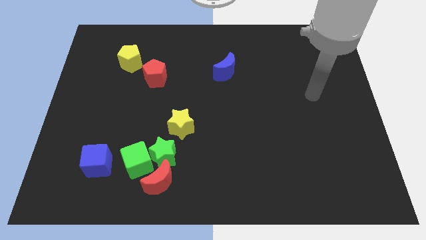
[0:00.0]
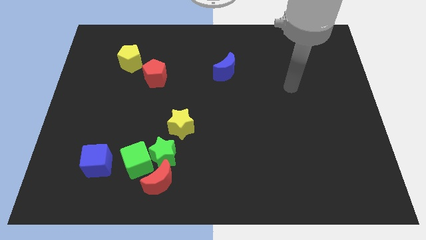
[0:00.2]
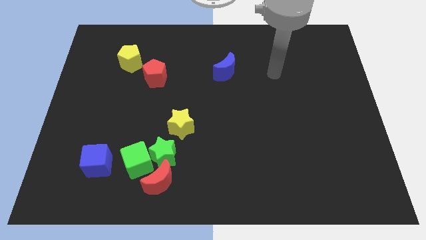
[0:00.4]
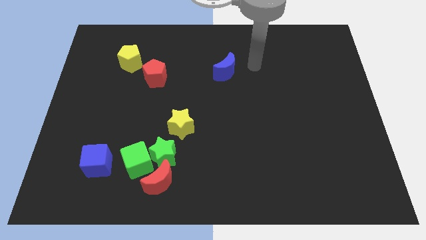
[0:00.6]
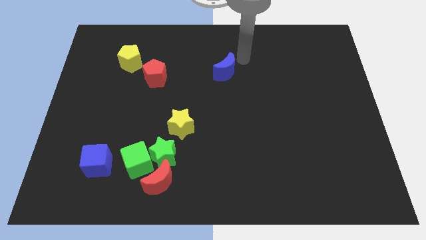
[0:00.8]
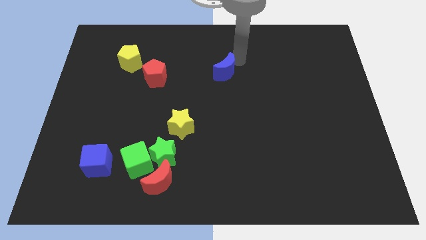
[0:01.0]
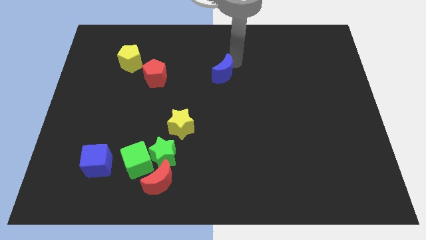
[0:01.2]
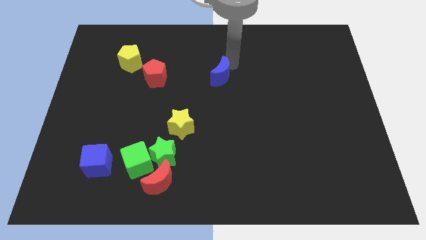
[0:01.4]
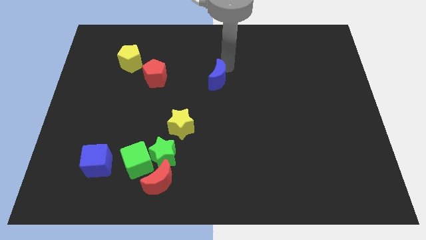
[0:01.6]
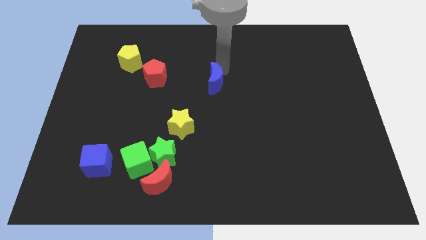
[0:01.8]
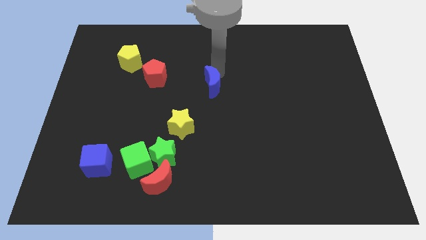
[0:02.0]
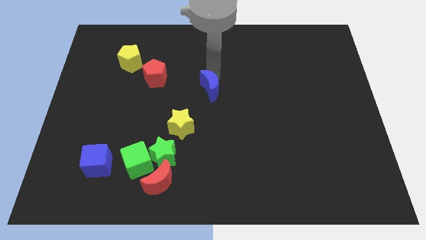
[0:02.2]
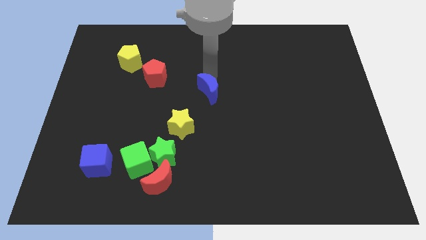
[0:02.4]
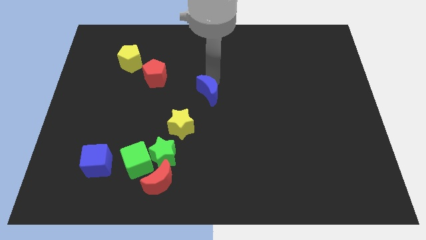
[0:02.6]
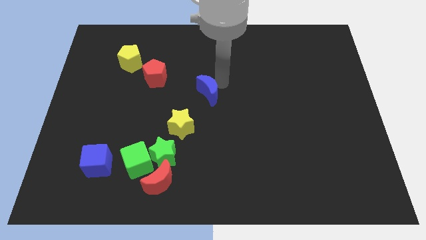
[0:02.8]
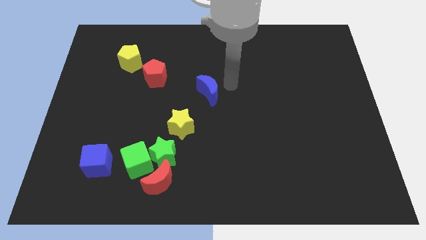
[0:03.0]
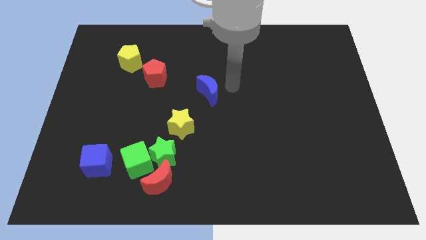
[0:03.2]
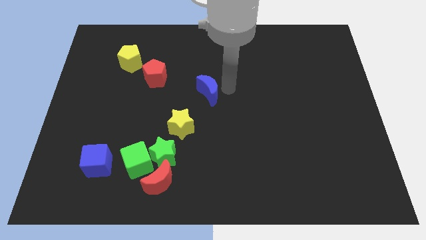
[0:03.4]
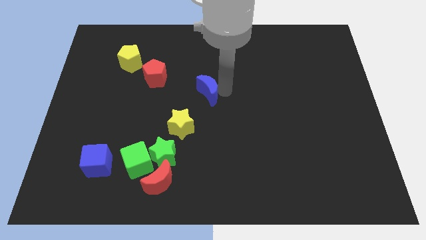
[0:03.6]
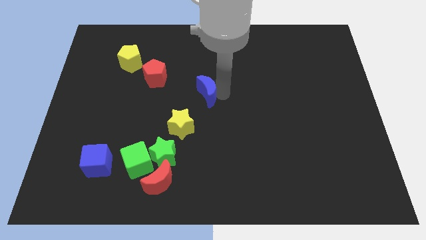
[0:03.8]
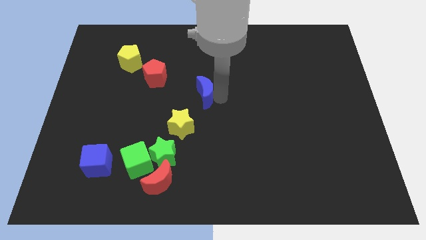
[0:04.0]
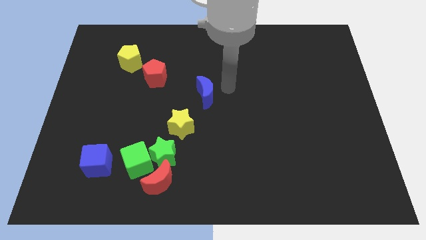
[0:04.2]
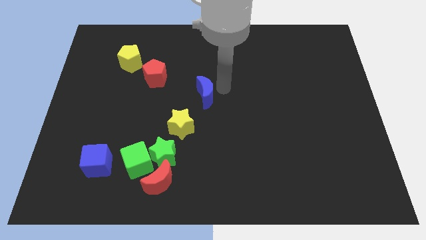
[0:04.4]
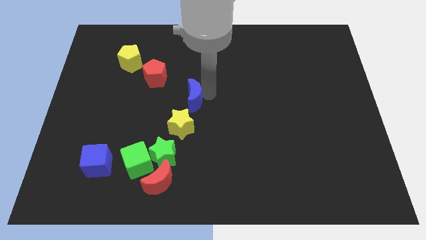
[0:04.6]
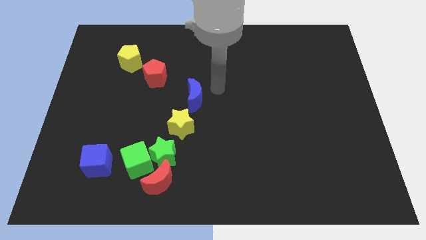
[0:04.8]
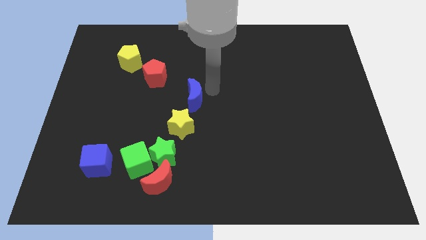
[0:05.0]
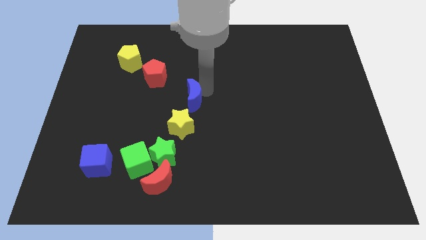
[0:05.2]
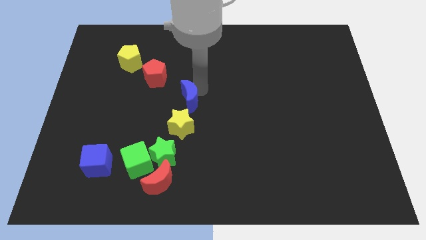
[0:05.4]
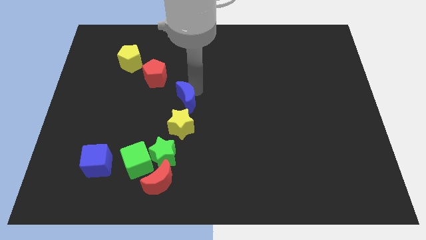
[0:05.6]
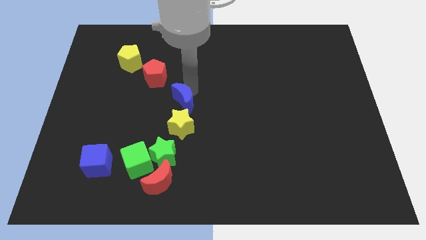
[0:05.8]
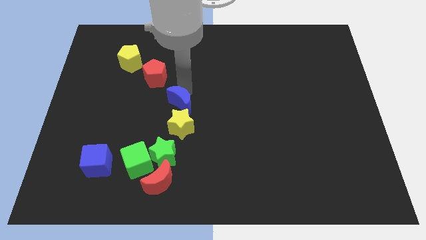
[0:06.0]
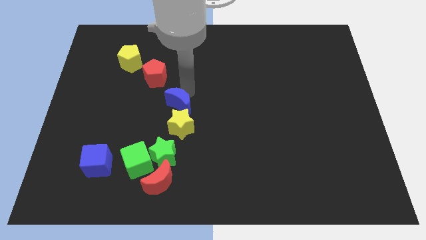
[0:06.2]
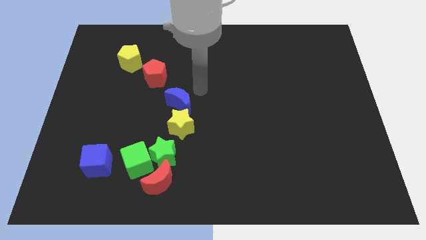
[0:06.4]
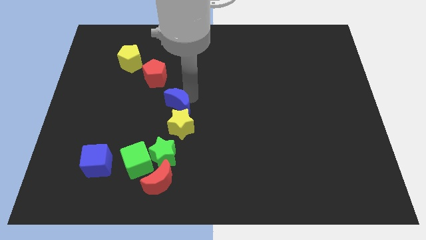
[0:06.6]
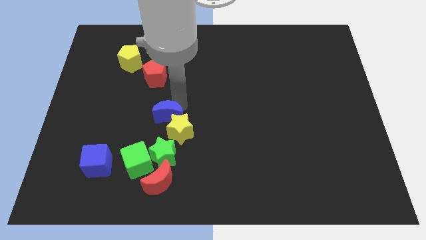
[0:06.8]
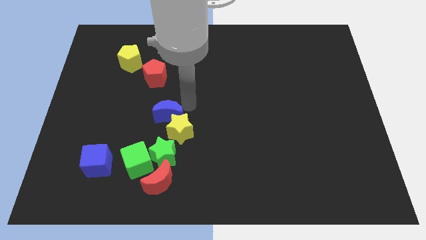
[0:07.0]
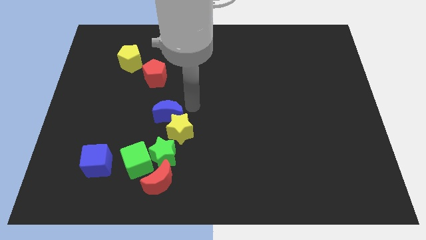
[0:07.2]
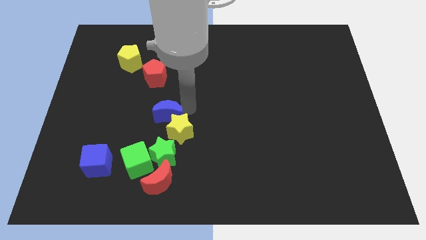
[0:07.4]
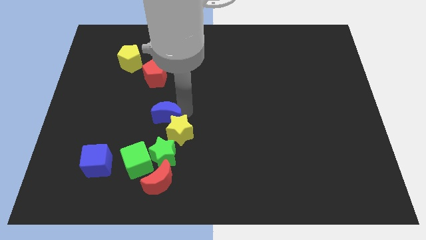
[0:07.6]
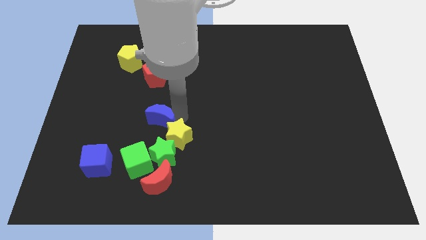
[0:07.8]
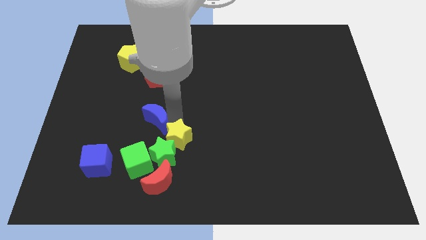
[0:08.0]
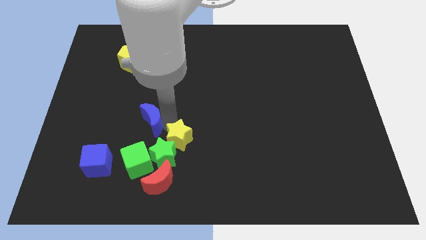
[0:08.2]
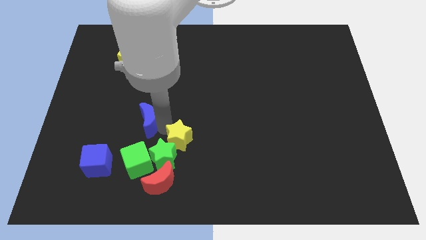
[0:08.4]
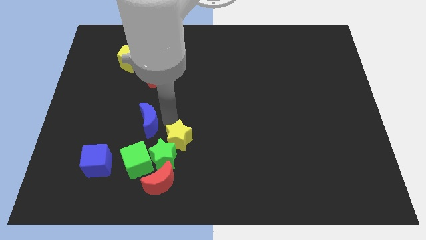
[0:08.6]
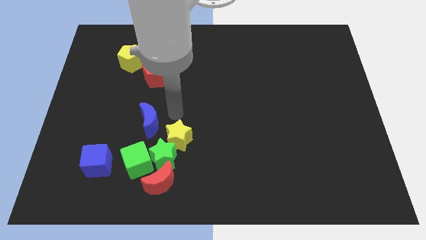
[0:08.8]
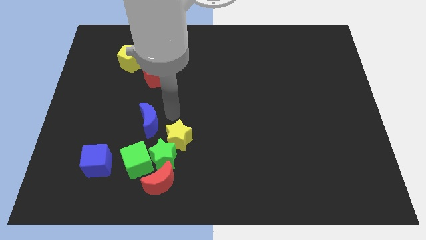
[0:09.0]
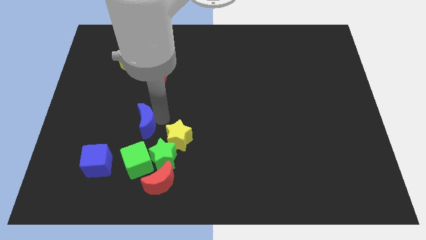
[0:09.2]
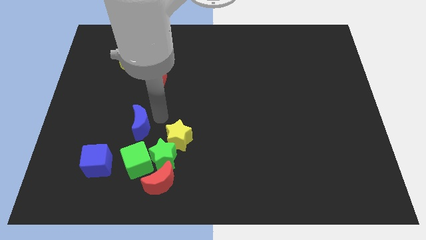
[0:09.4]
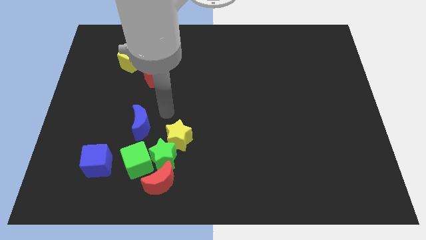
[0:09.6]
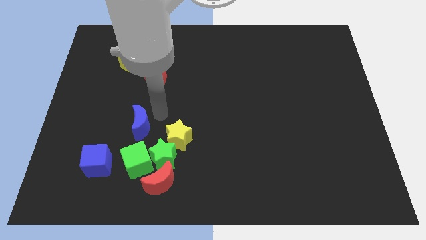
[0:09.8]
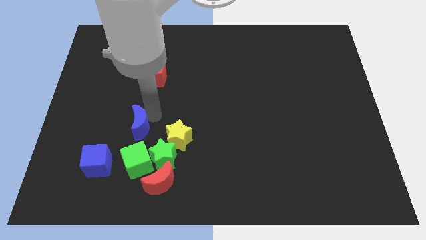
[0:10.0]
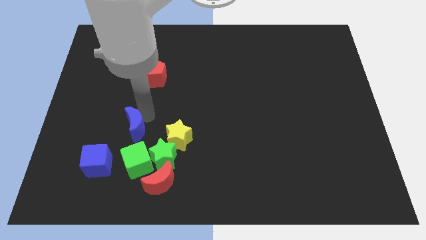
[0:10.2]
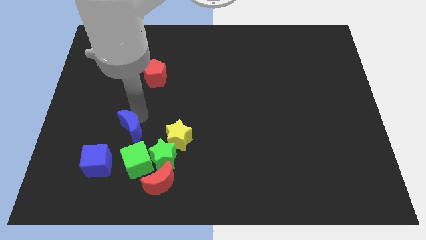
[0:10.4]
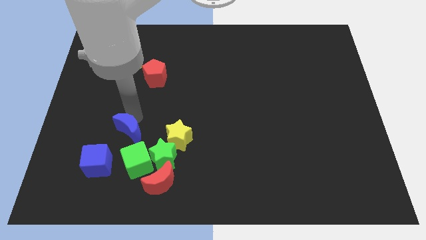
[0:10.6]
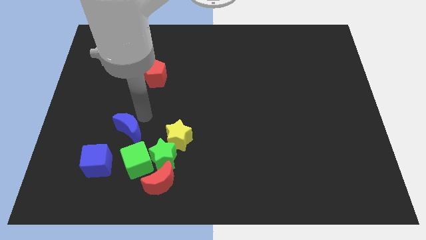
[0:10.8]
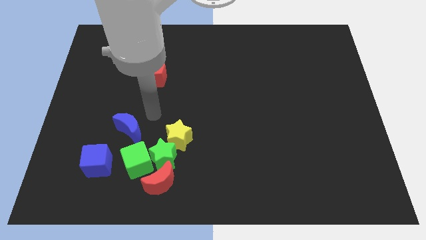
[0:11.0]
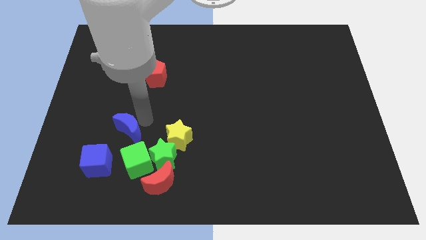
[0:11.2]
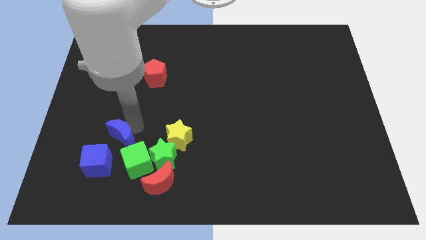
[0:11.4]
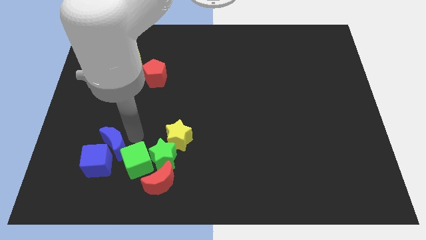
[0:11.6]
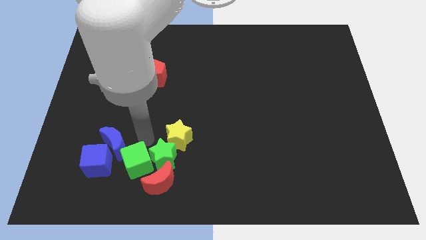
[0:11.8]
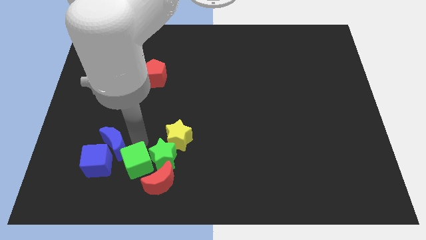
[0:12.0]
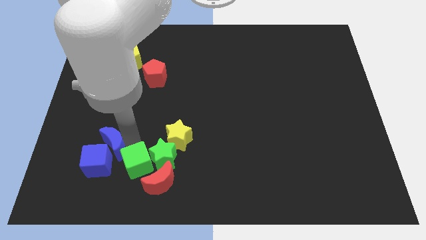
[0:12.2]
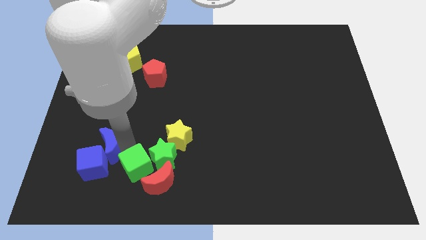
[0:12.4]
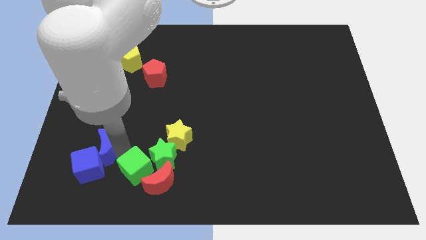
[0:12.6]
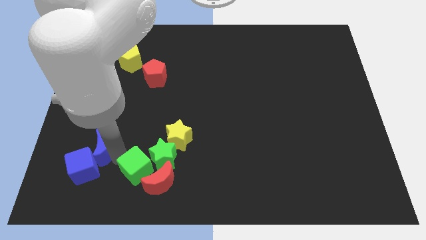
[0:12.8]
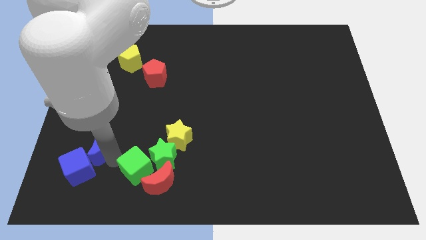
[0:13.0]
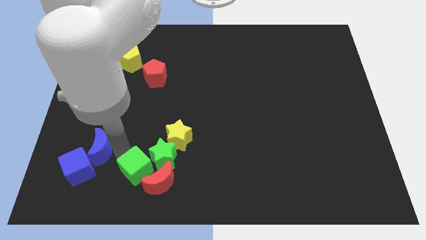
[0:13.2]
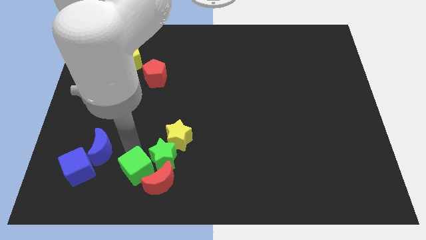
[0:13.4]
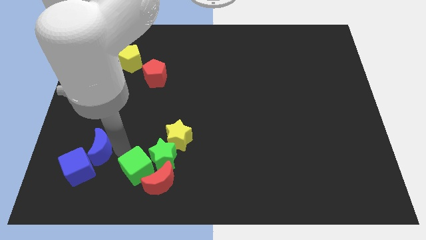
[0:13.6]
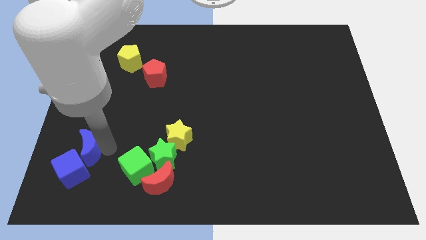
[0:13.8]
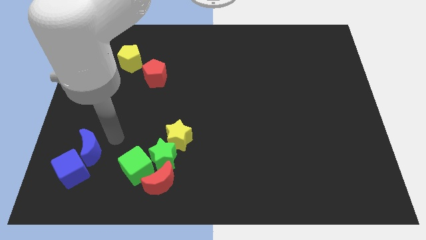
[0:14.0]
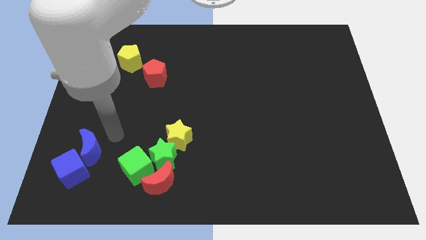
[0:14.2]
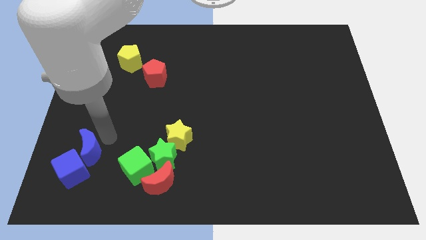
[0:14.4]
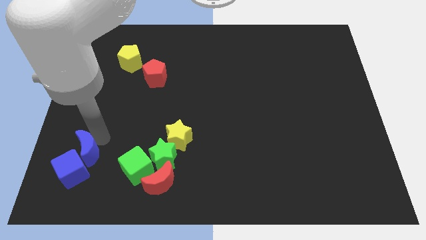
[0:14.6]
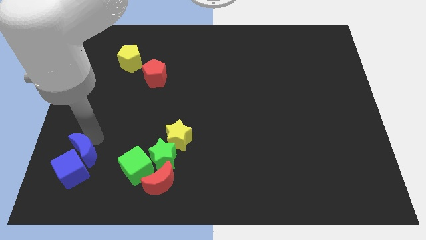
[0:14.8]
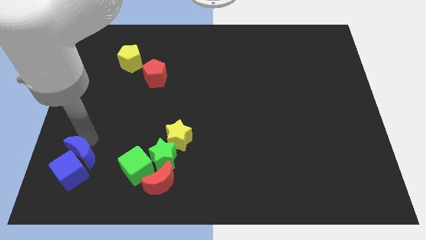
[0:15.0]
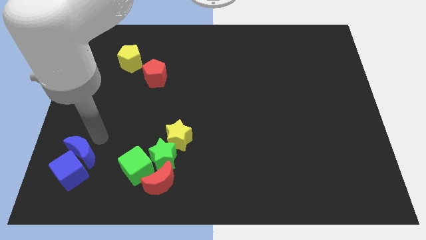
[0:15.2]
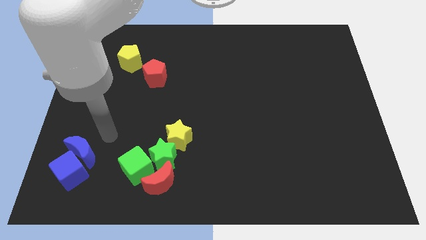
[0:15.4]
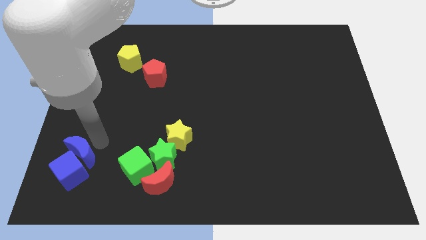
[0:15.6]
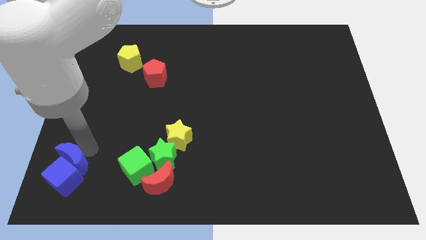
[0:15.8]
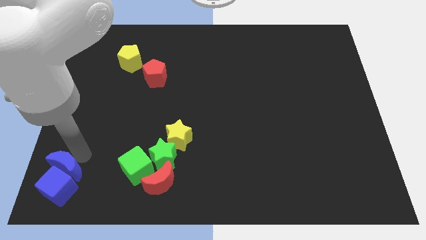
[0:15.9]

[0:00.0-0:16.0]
push the blue moon to the lower left corner
